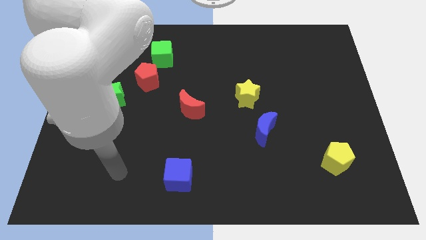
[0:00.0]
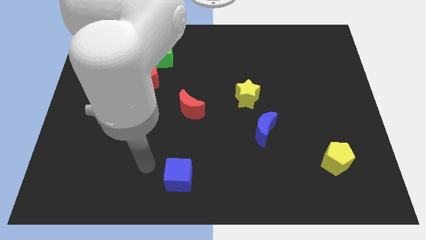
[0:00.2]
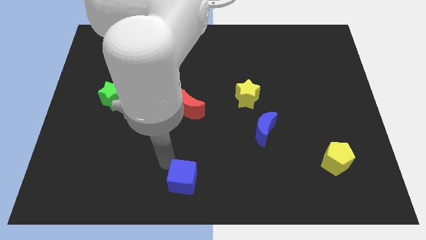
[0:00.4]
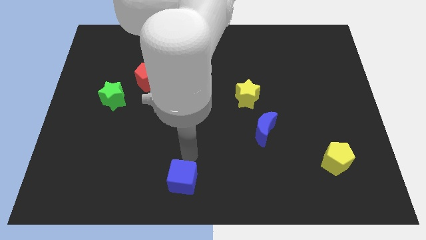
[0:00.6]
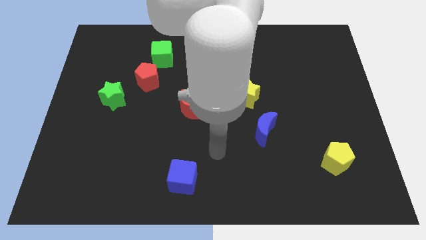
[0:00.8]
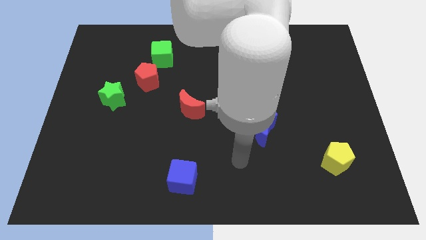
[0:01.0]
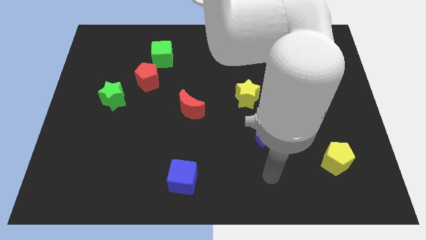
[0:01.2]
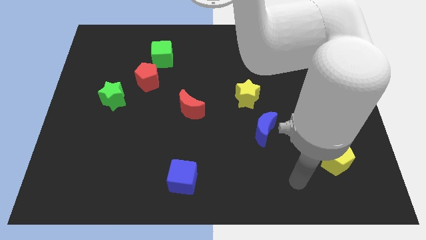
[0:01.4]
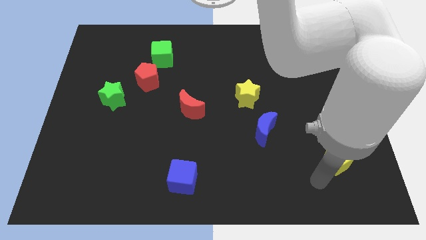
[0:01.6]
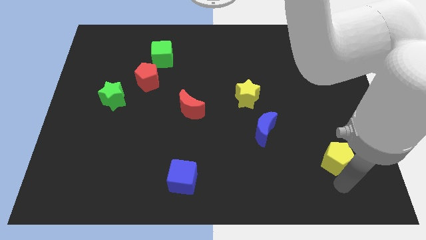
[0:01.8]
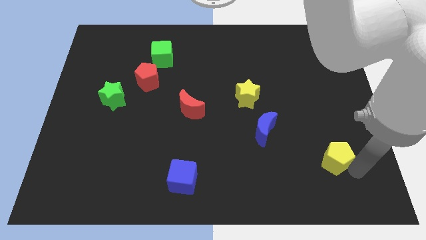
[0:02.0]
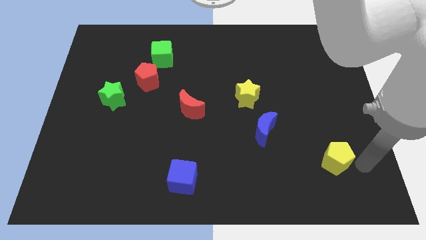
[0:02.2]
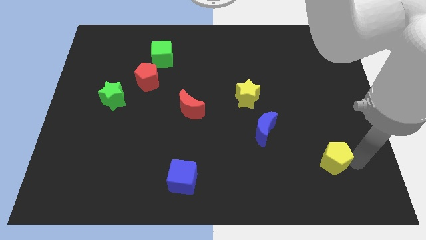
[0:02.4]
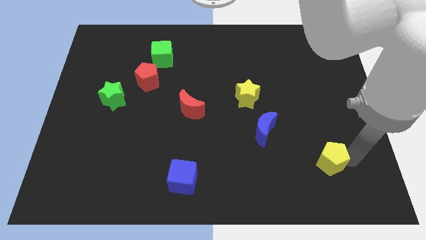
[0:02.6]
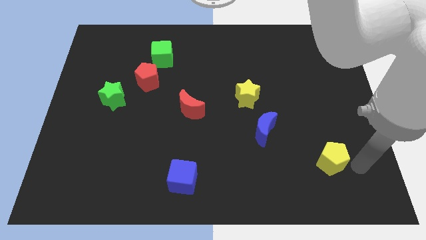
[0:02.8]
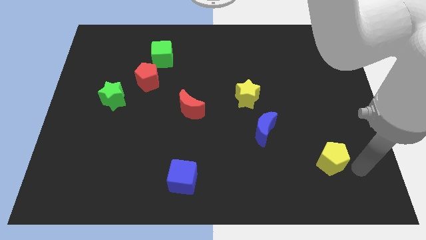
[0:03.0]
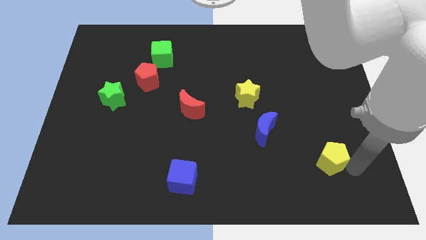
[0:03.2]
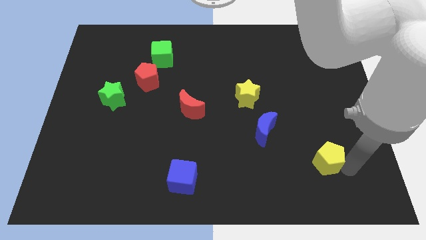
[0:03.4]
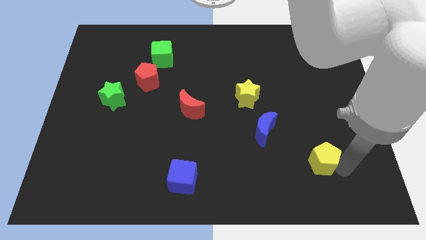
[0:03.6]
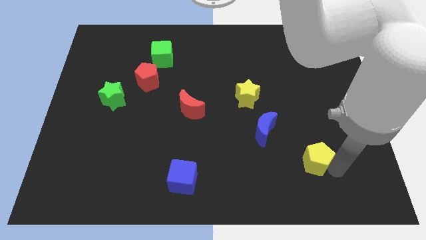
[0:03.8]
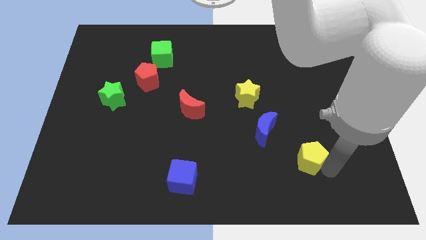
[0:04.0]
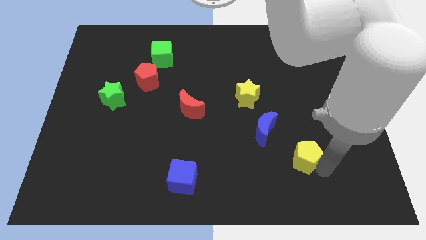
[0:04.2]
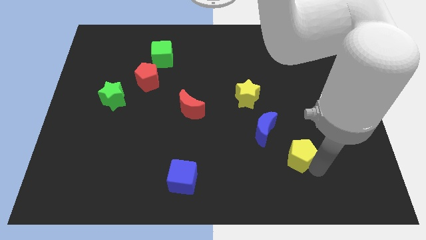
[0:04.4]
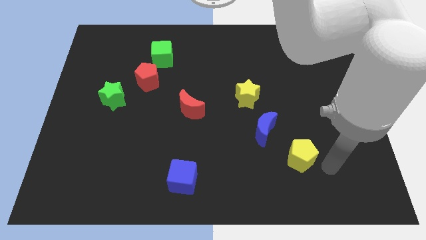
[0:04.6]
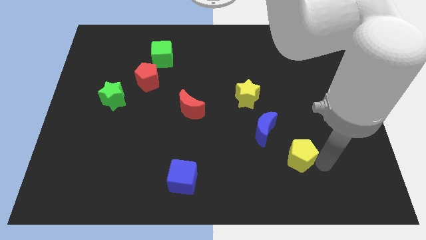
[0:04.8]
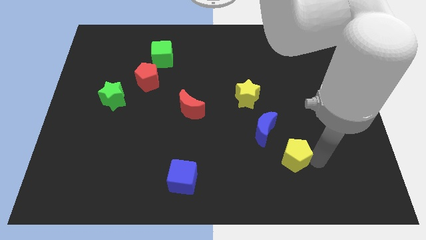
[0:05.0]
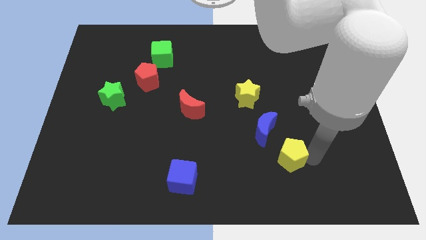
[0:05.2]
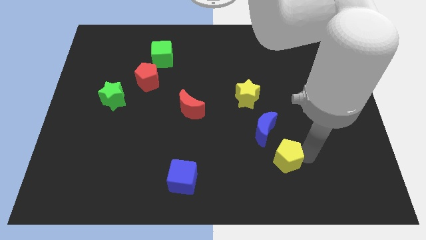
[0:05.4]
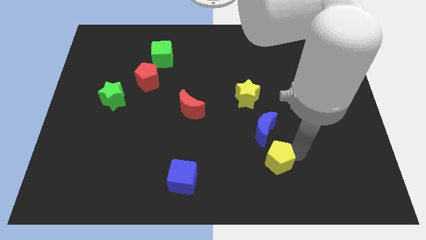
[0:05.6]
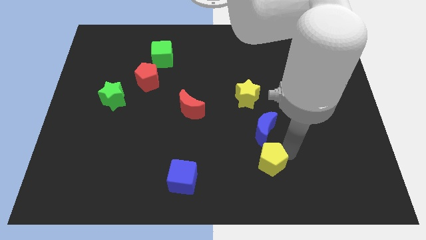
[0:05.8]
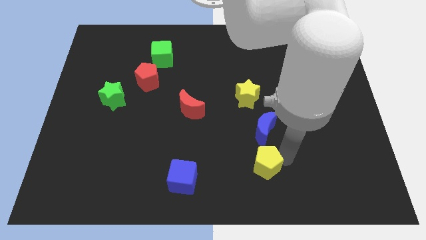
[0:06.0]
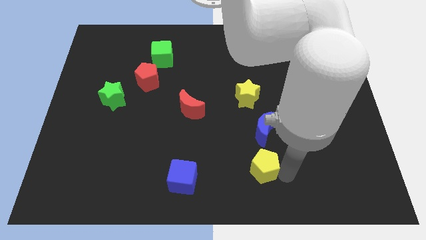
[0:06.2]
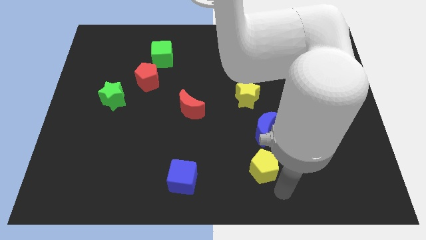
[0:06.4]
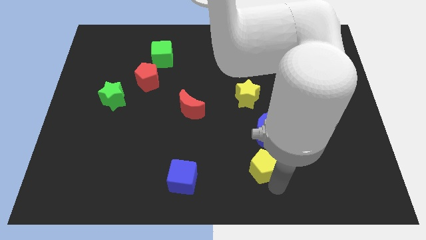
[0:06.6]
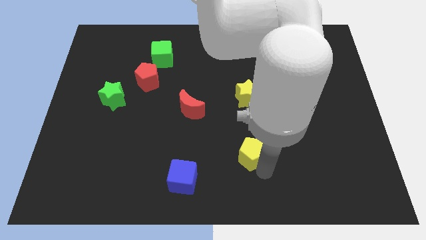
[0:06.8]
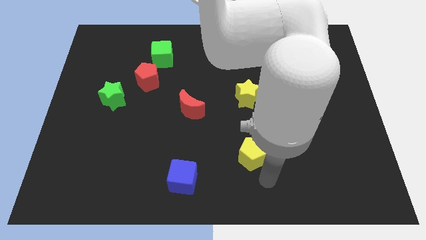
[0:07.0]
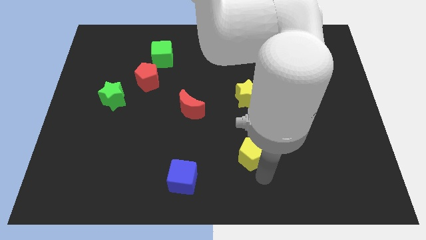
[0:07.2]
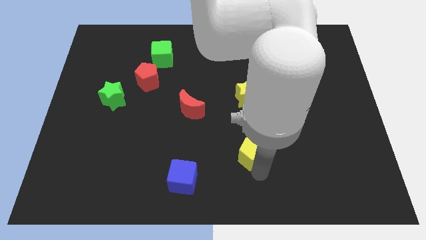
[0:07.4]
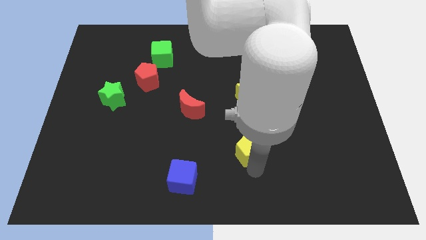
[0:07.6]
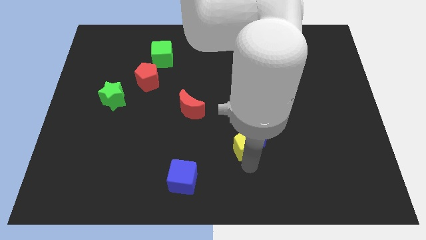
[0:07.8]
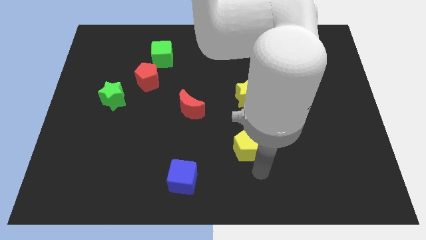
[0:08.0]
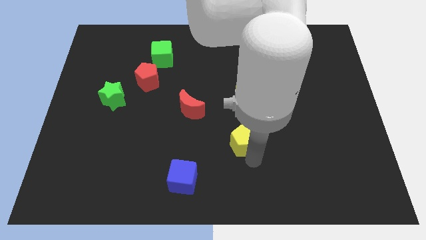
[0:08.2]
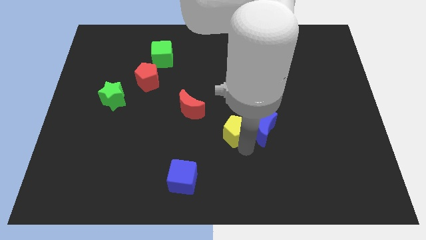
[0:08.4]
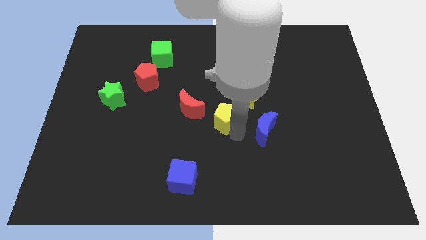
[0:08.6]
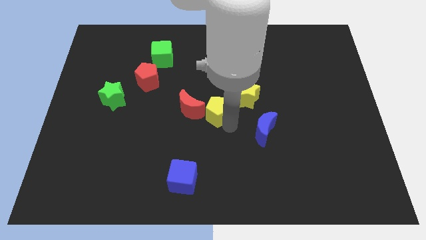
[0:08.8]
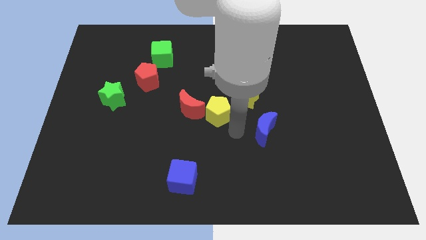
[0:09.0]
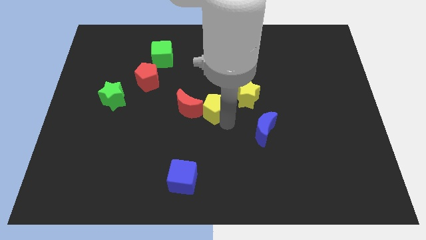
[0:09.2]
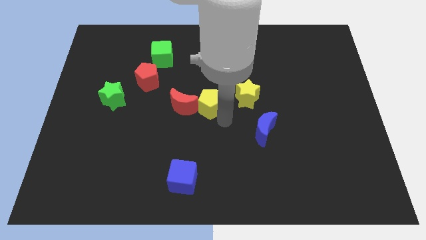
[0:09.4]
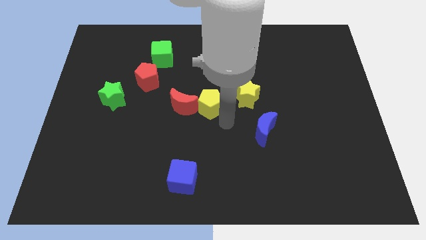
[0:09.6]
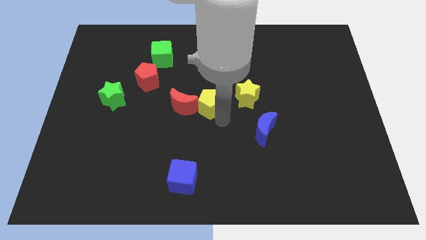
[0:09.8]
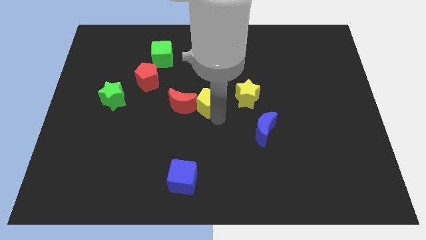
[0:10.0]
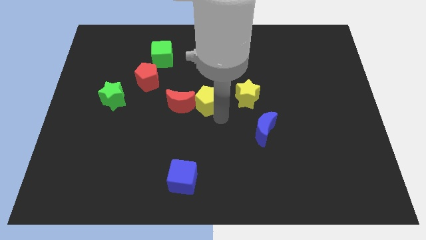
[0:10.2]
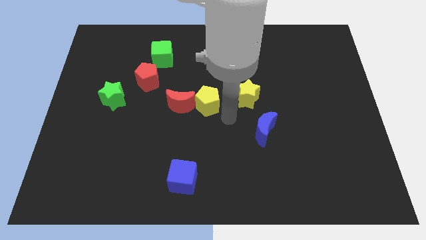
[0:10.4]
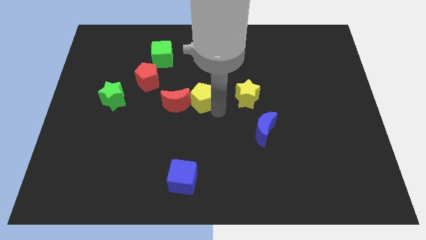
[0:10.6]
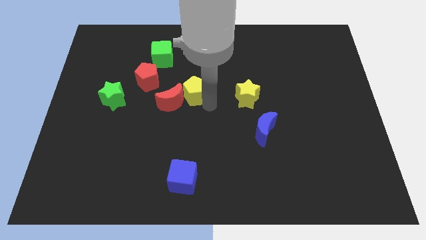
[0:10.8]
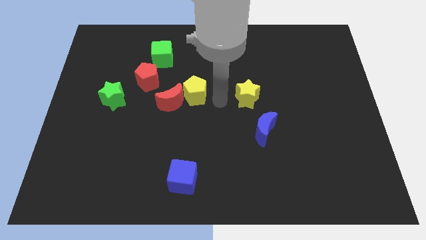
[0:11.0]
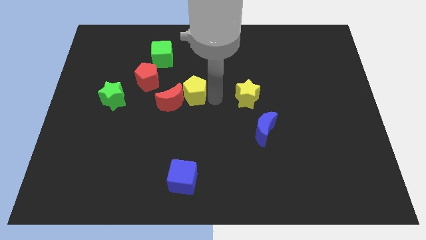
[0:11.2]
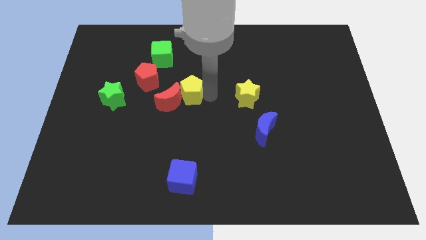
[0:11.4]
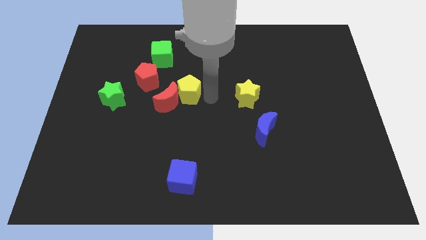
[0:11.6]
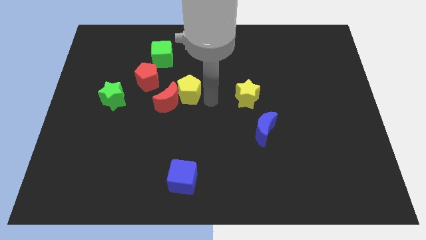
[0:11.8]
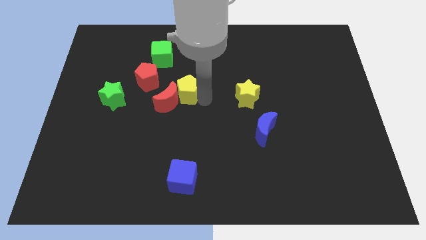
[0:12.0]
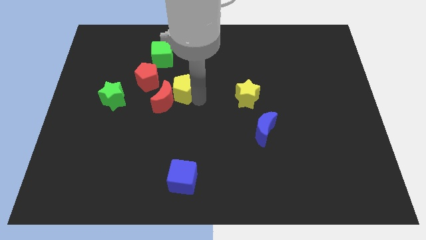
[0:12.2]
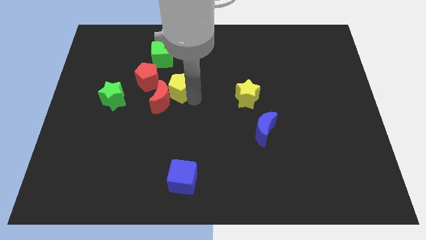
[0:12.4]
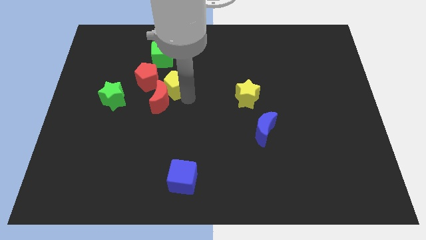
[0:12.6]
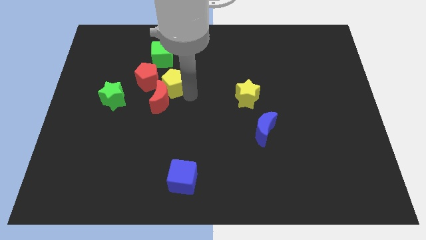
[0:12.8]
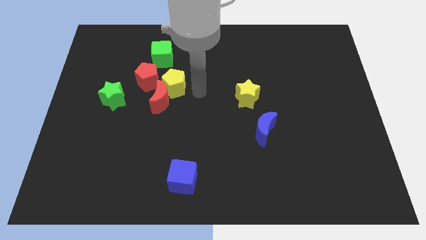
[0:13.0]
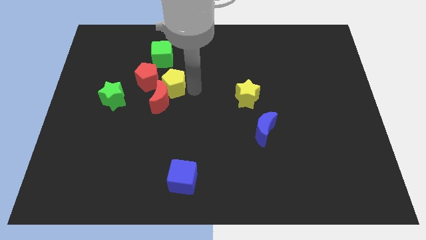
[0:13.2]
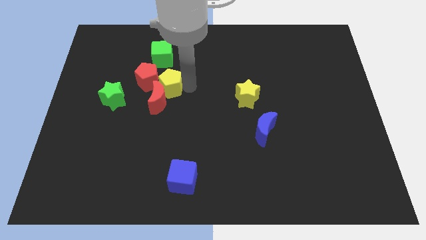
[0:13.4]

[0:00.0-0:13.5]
slide the yellow pentagon towards the red pentagon

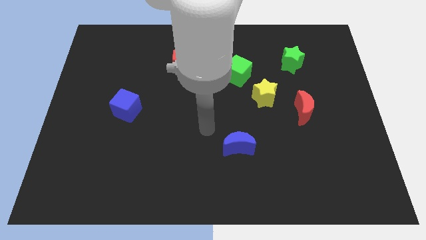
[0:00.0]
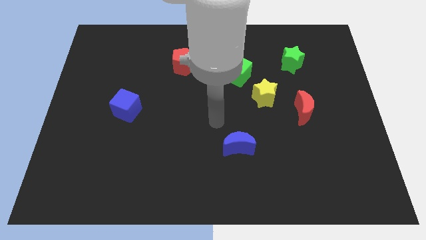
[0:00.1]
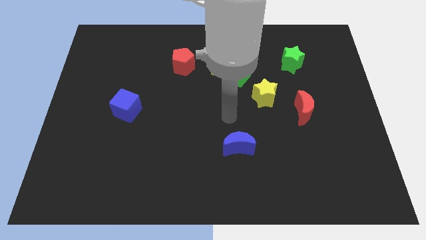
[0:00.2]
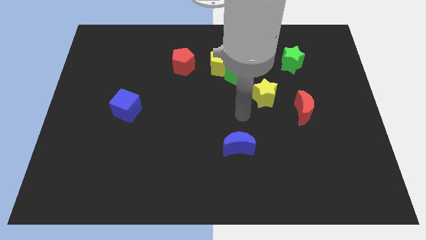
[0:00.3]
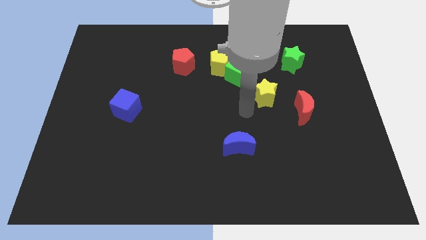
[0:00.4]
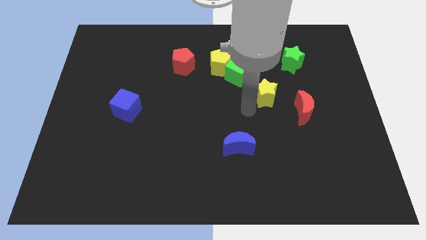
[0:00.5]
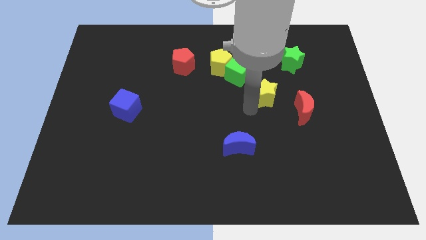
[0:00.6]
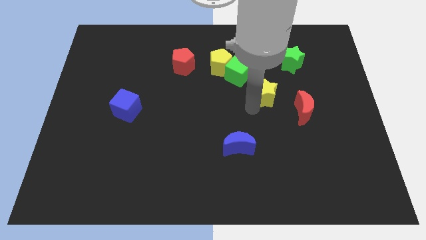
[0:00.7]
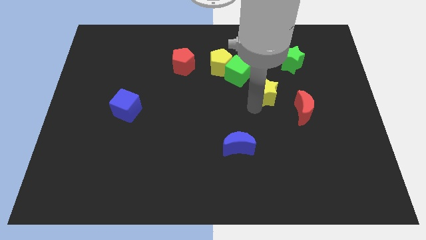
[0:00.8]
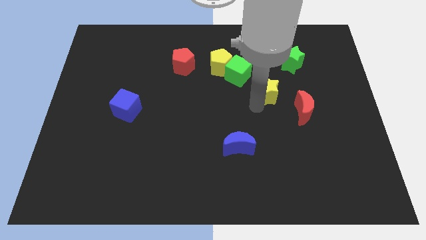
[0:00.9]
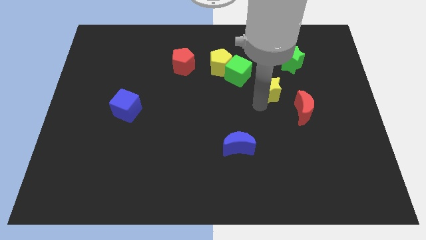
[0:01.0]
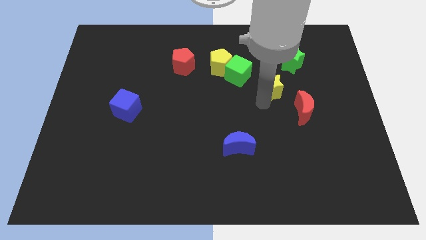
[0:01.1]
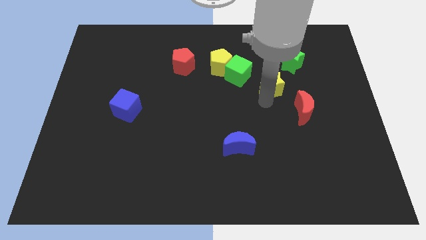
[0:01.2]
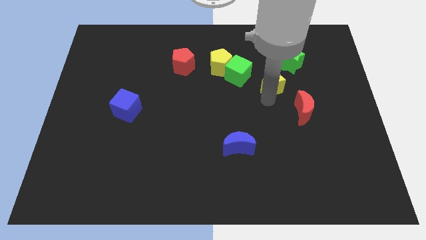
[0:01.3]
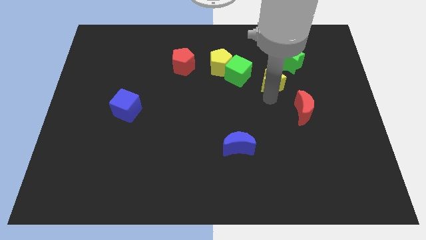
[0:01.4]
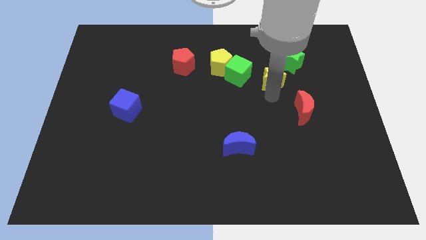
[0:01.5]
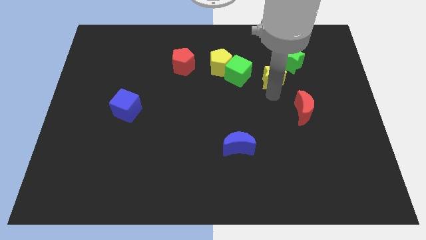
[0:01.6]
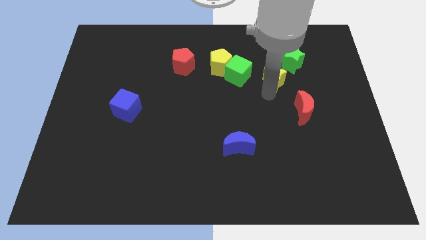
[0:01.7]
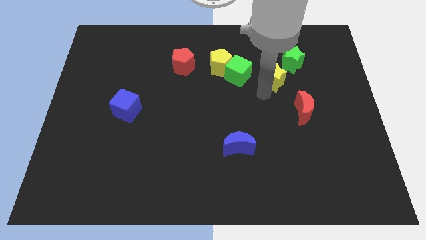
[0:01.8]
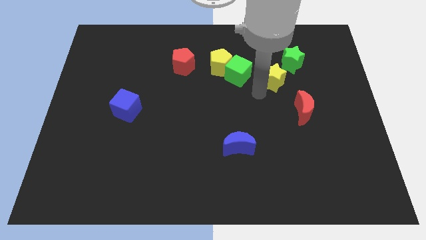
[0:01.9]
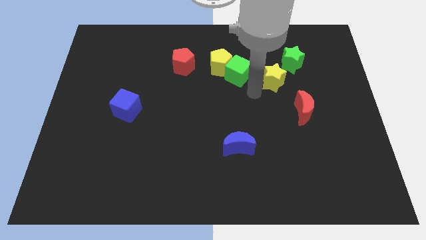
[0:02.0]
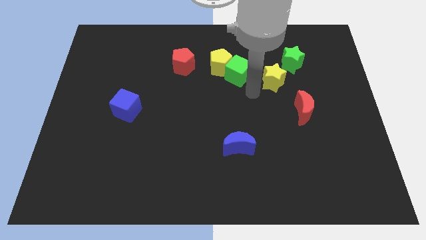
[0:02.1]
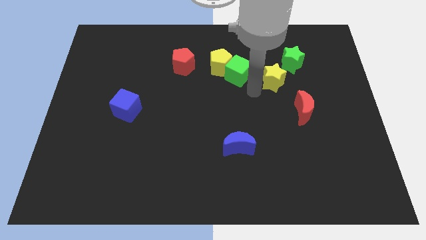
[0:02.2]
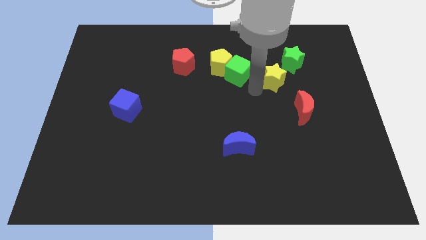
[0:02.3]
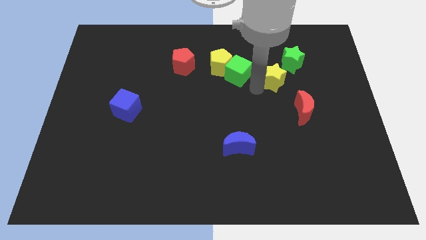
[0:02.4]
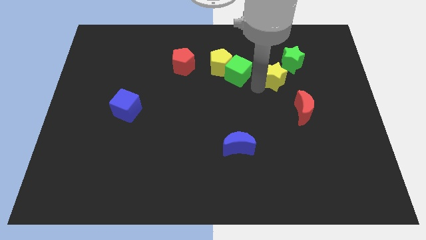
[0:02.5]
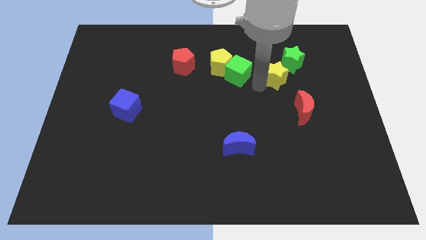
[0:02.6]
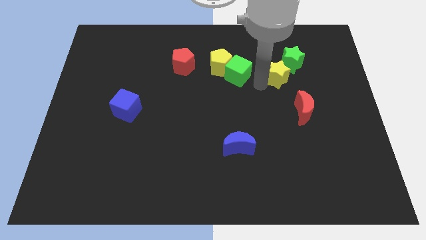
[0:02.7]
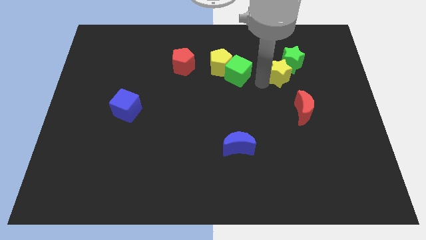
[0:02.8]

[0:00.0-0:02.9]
push the yellow star close to the green star
